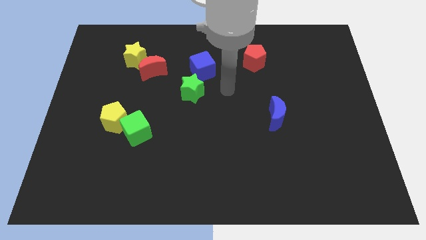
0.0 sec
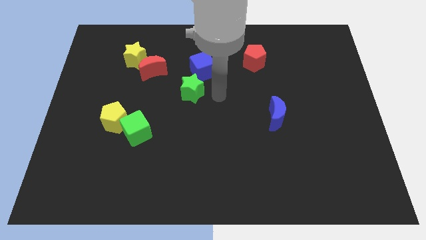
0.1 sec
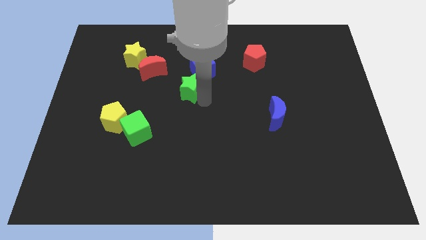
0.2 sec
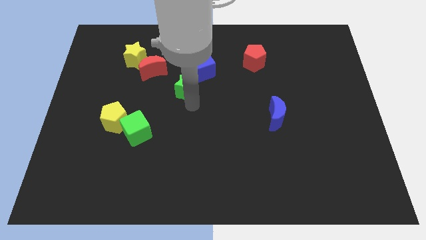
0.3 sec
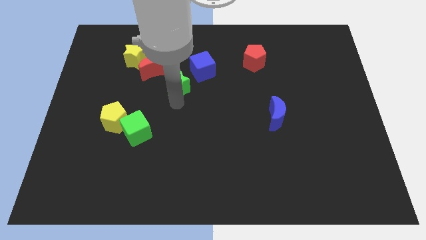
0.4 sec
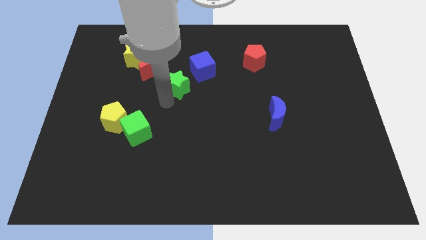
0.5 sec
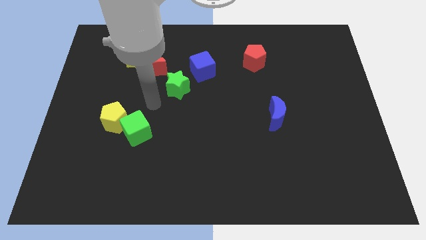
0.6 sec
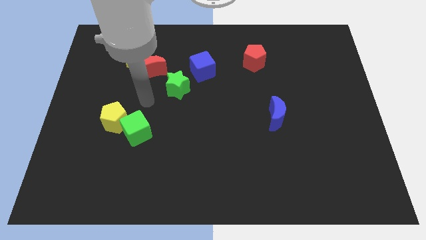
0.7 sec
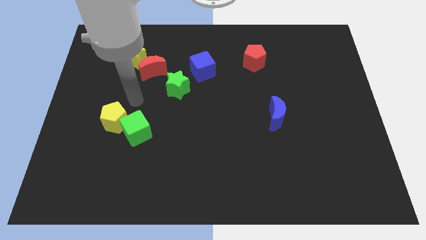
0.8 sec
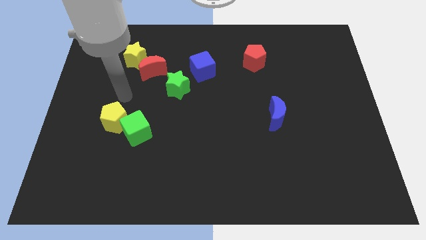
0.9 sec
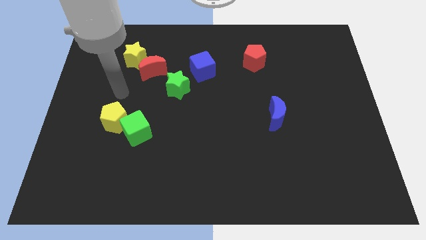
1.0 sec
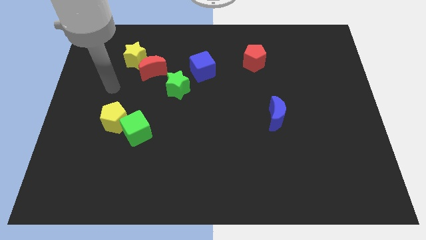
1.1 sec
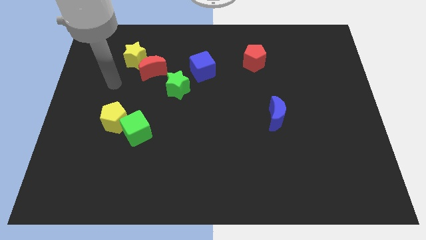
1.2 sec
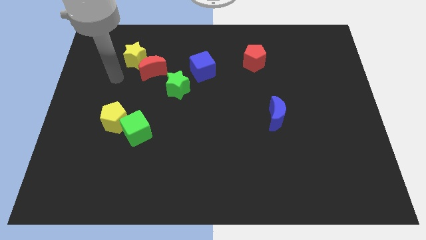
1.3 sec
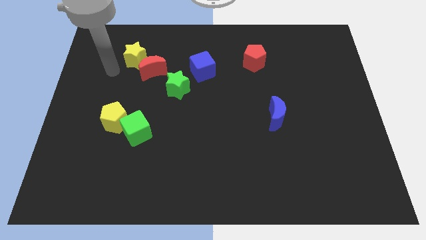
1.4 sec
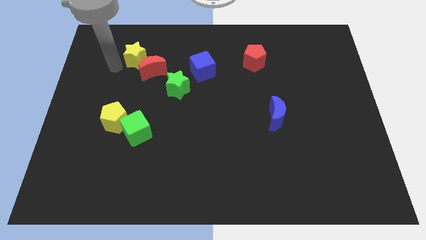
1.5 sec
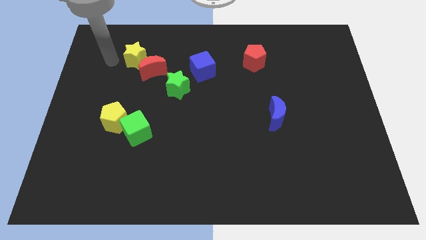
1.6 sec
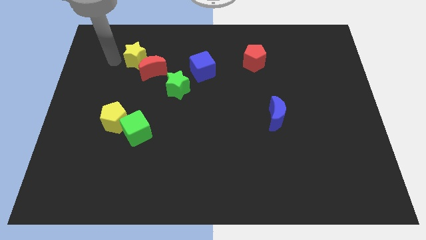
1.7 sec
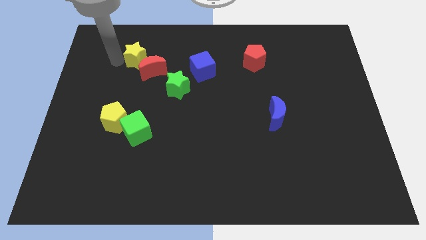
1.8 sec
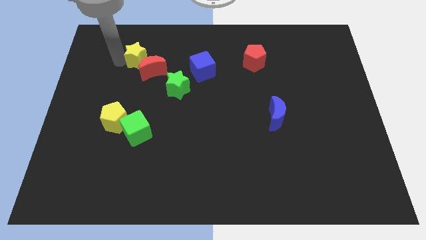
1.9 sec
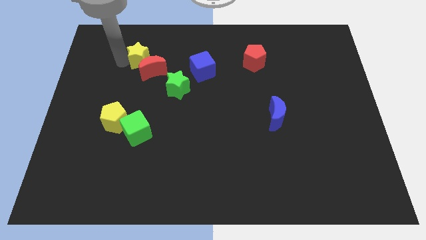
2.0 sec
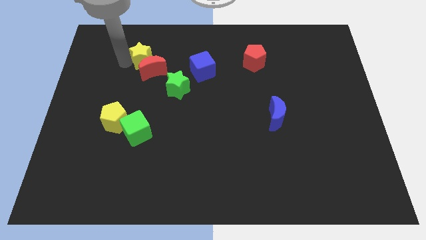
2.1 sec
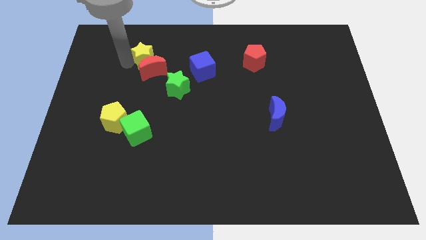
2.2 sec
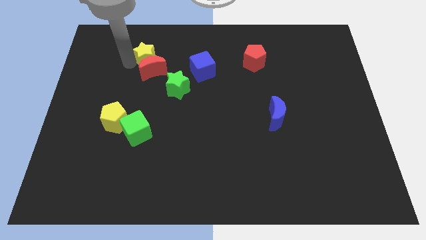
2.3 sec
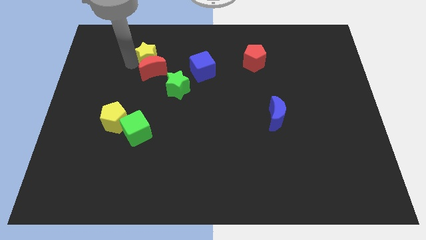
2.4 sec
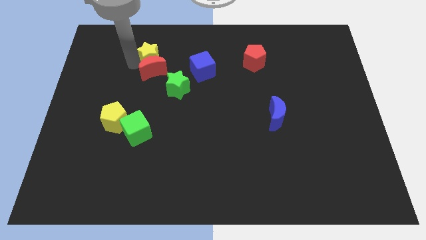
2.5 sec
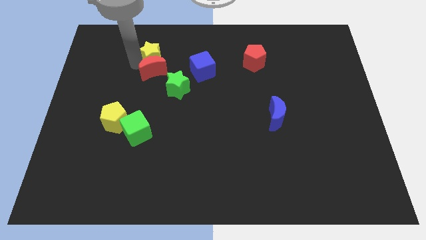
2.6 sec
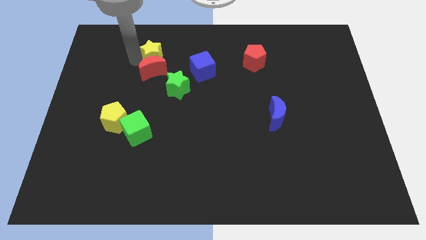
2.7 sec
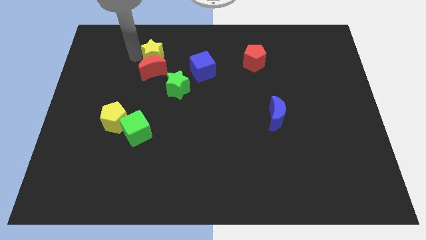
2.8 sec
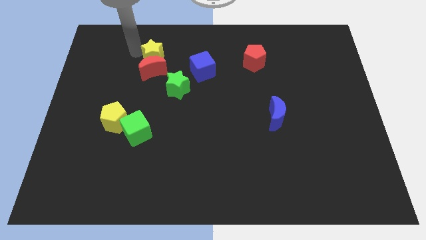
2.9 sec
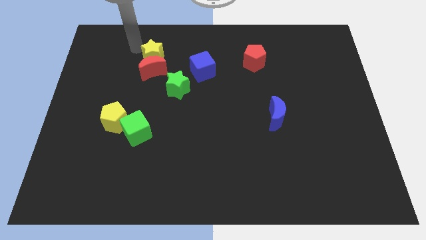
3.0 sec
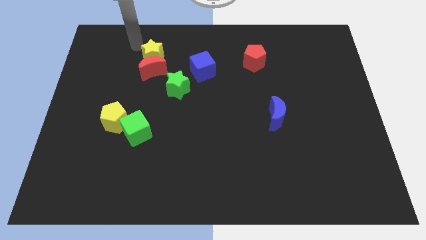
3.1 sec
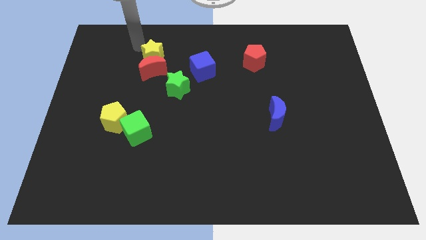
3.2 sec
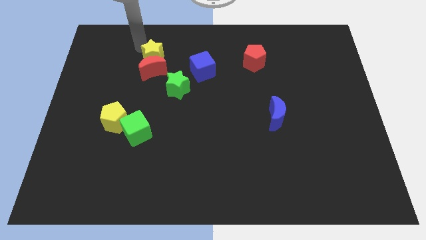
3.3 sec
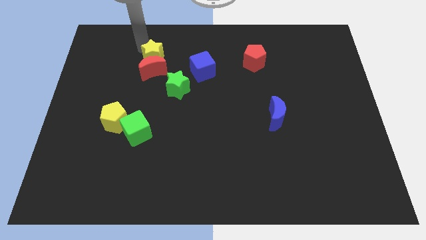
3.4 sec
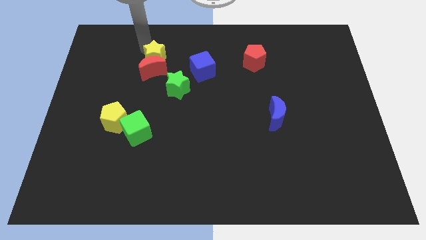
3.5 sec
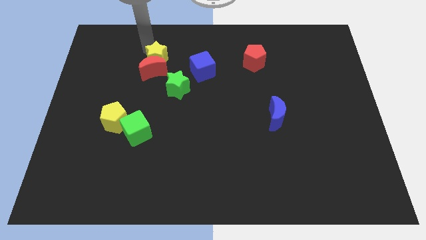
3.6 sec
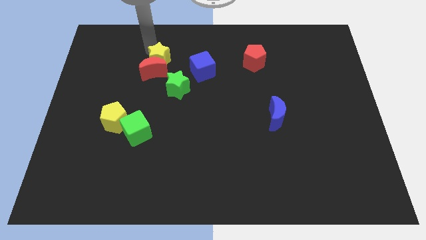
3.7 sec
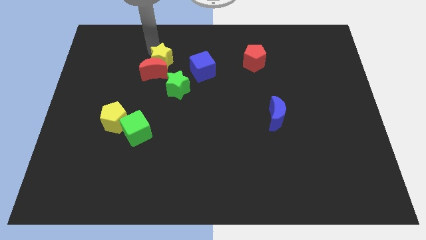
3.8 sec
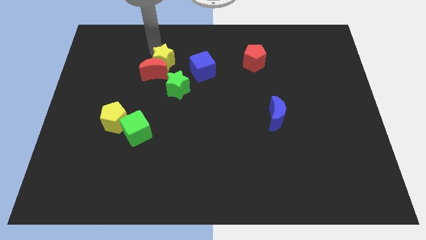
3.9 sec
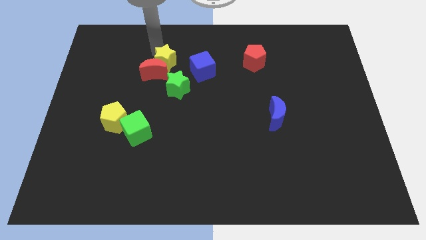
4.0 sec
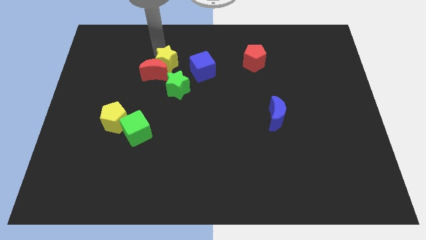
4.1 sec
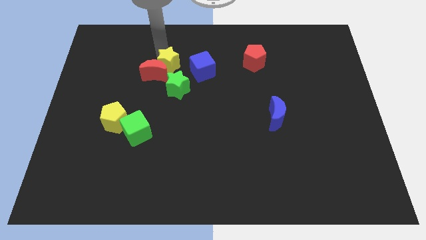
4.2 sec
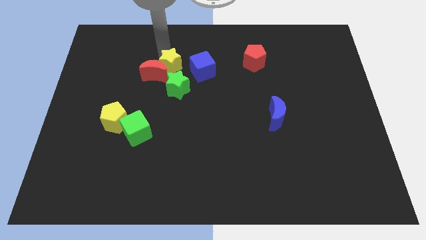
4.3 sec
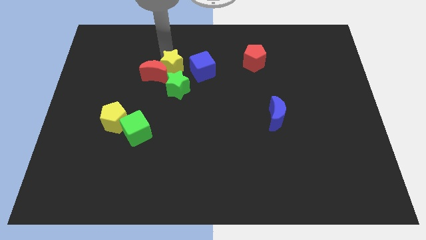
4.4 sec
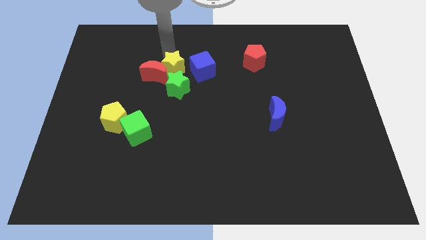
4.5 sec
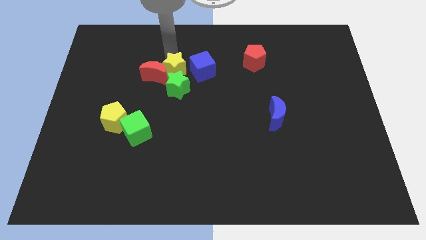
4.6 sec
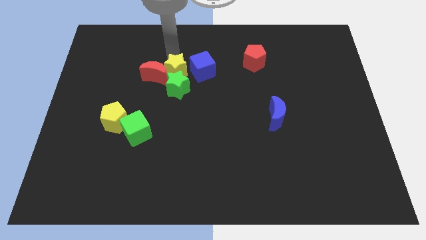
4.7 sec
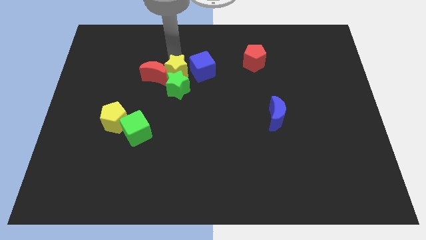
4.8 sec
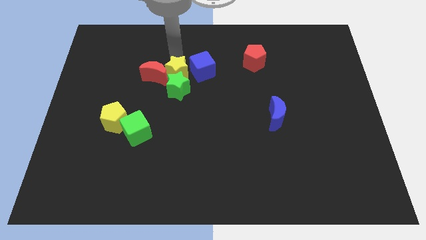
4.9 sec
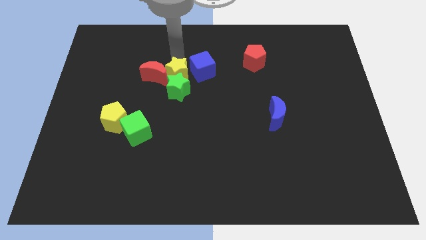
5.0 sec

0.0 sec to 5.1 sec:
slide the yellow star to the center of the board

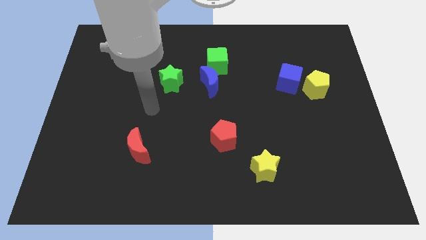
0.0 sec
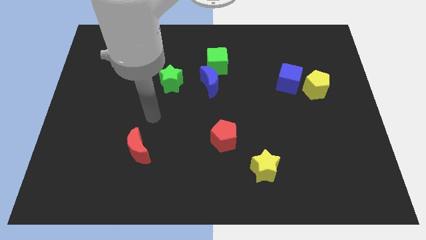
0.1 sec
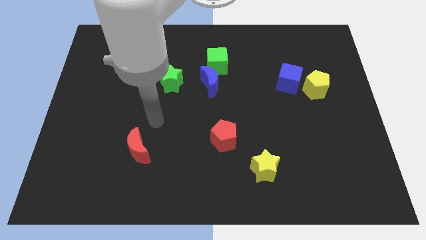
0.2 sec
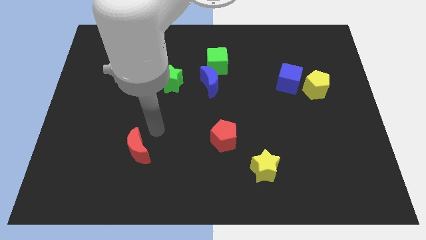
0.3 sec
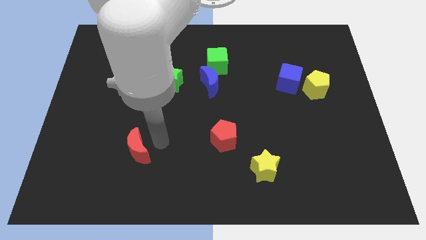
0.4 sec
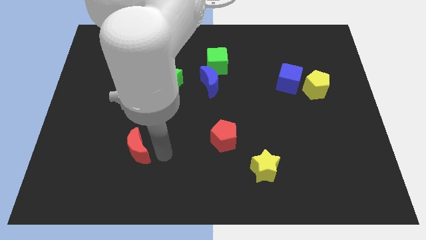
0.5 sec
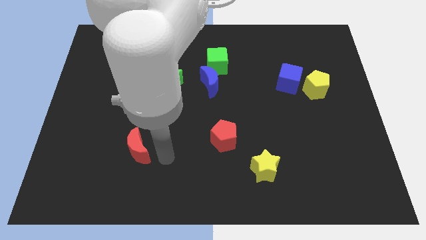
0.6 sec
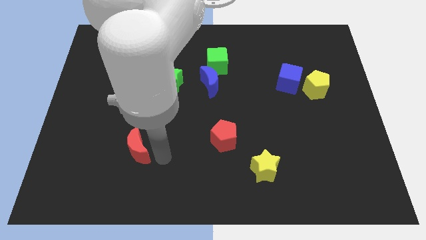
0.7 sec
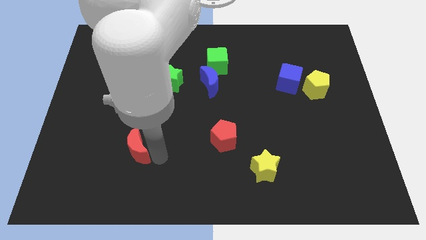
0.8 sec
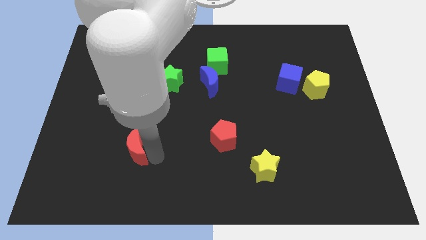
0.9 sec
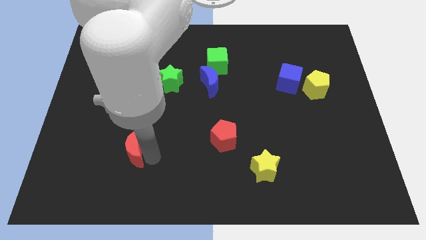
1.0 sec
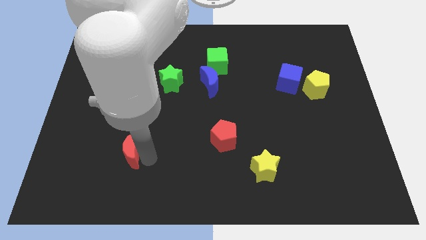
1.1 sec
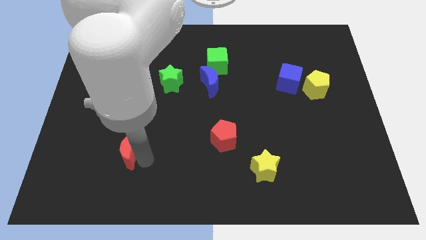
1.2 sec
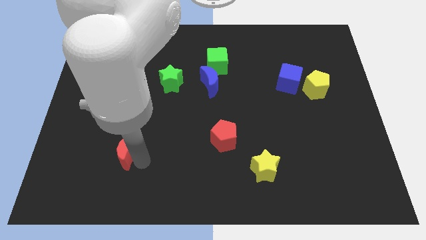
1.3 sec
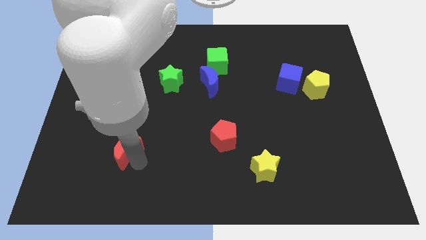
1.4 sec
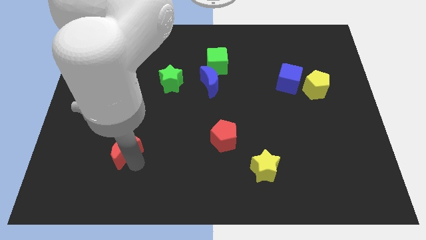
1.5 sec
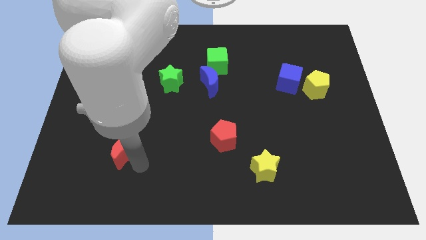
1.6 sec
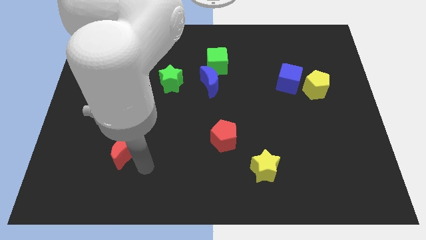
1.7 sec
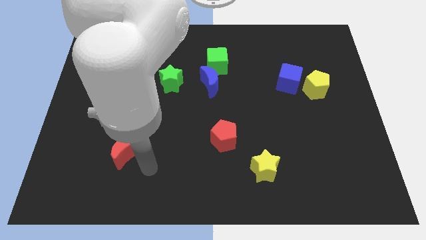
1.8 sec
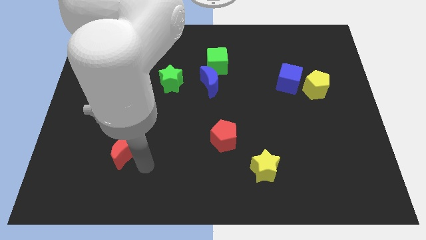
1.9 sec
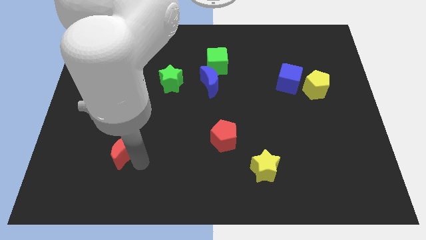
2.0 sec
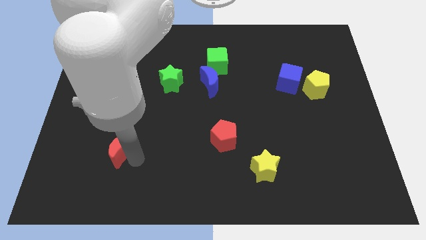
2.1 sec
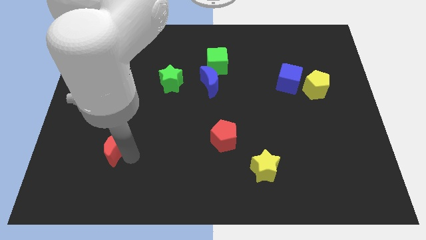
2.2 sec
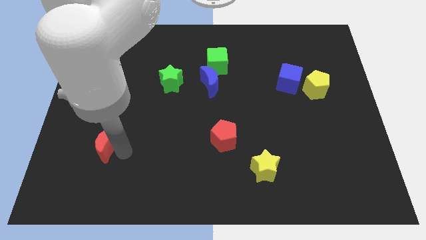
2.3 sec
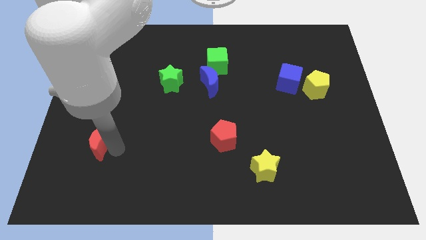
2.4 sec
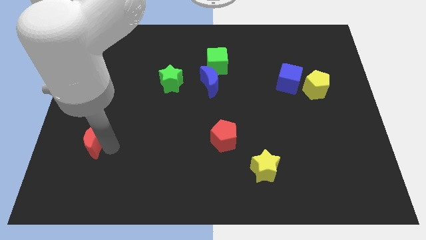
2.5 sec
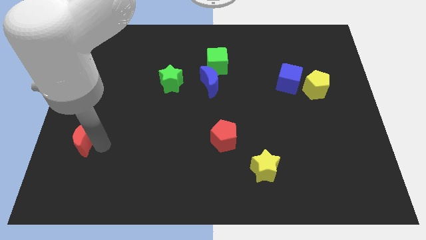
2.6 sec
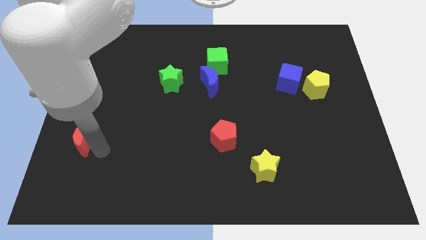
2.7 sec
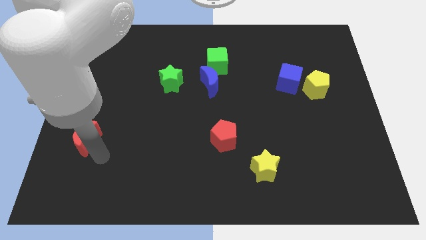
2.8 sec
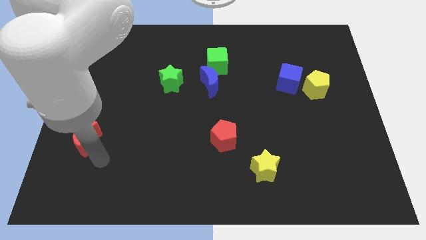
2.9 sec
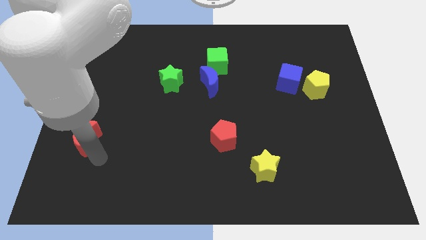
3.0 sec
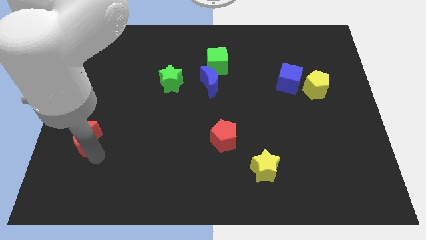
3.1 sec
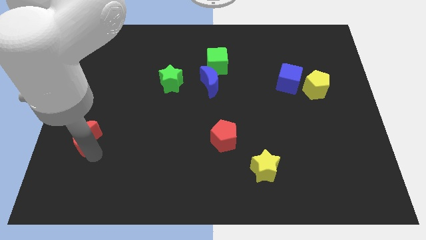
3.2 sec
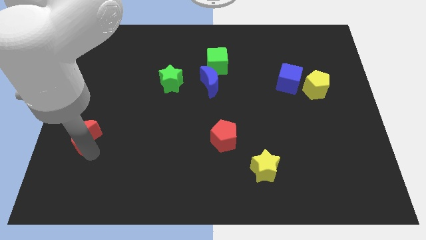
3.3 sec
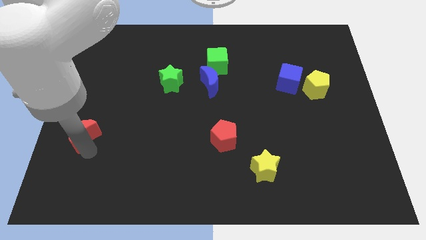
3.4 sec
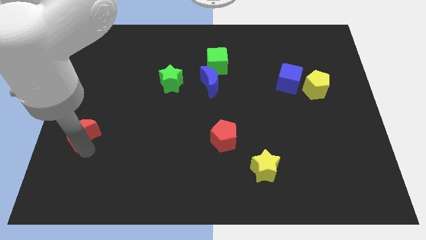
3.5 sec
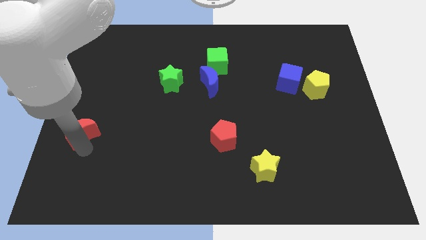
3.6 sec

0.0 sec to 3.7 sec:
put the red moon to the center left
